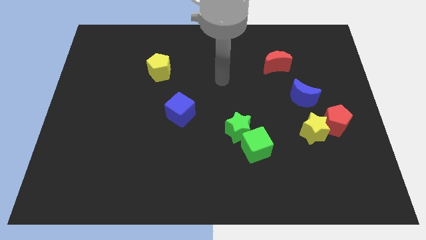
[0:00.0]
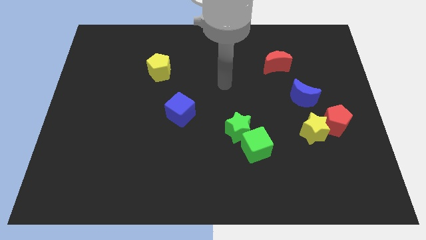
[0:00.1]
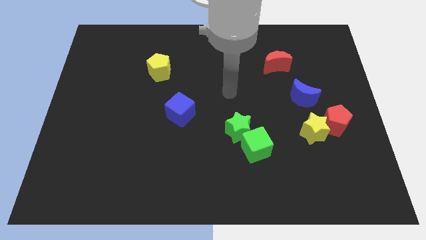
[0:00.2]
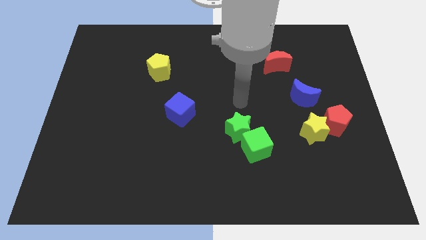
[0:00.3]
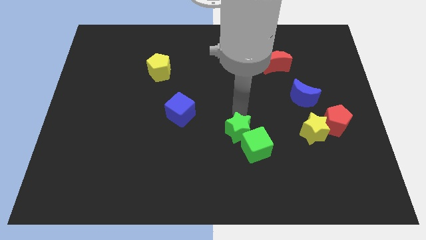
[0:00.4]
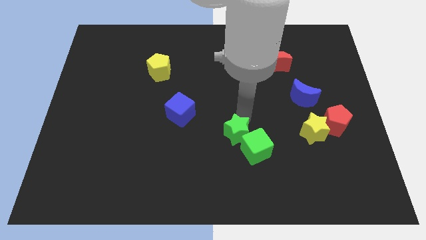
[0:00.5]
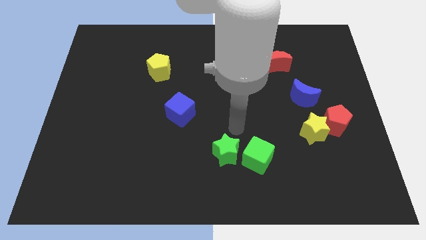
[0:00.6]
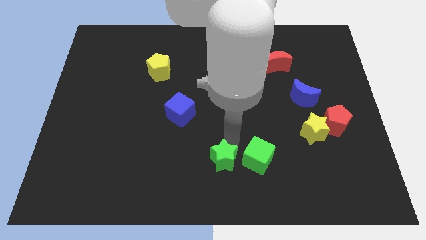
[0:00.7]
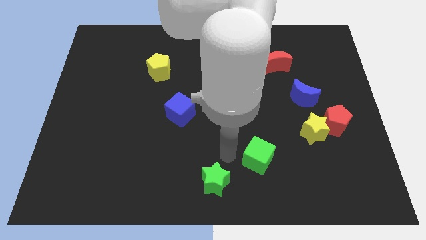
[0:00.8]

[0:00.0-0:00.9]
separate the green cube from the green star

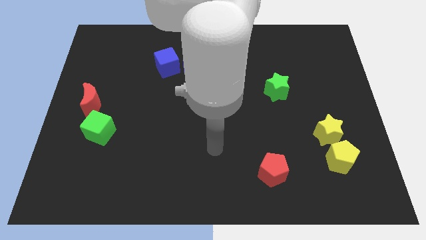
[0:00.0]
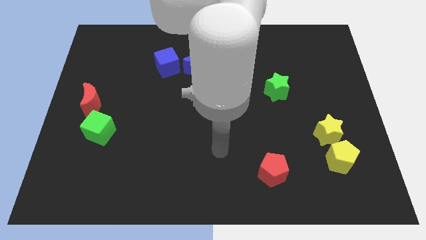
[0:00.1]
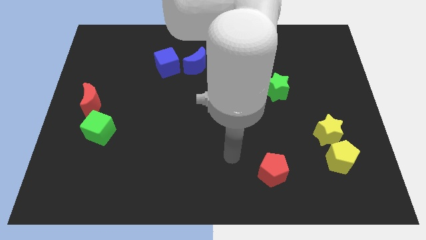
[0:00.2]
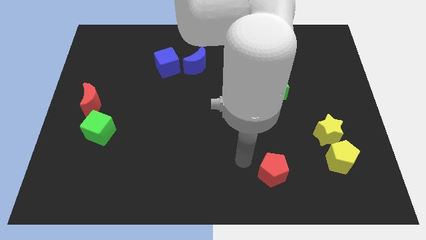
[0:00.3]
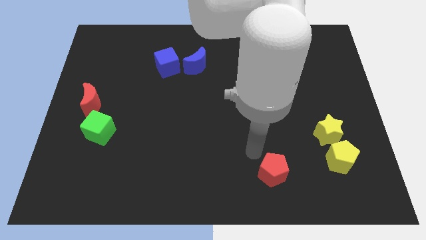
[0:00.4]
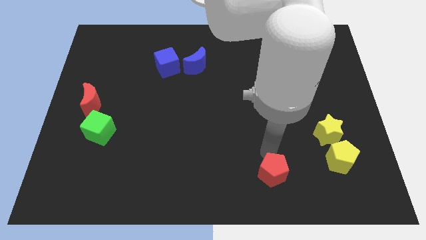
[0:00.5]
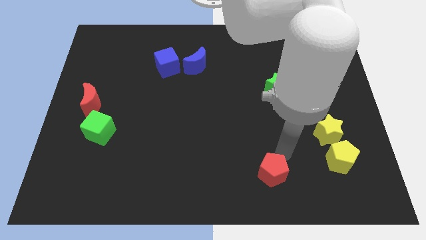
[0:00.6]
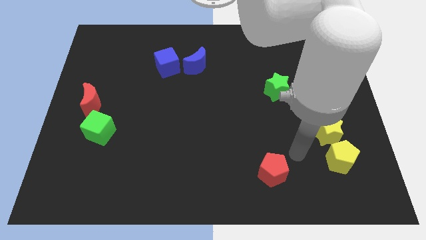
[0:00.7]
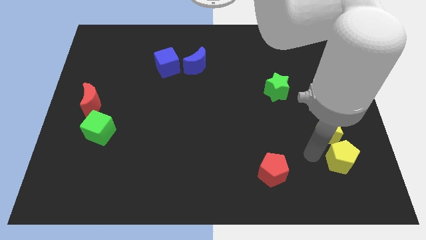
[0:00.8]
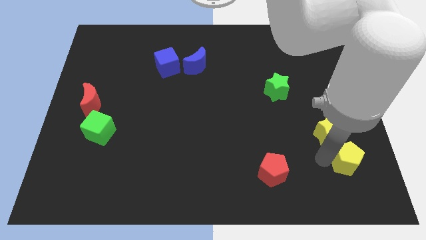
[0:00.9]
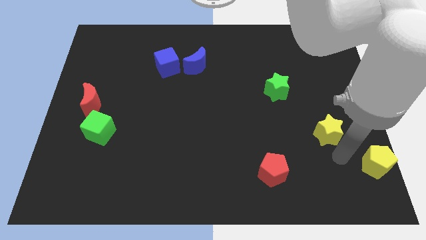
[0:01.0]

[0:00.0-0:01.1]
separate the yellow star from the yellow pentagon

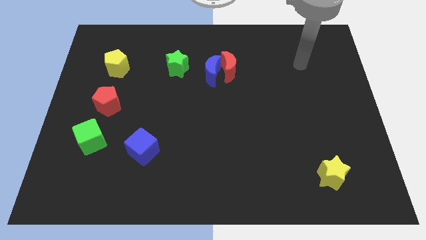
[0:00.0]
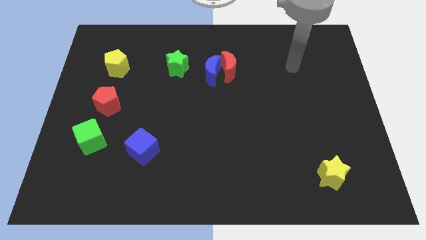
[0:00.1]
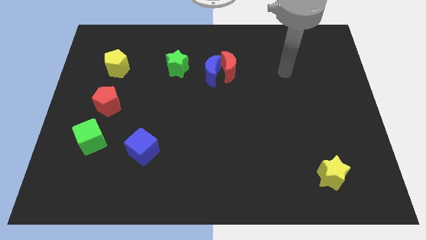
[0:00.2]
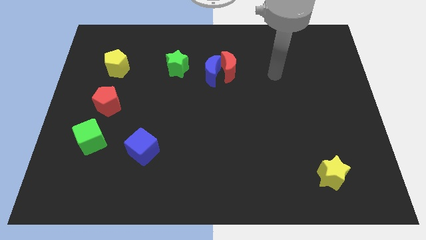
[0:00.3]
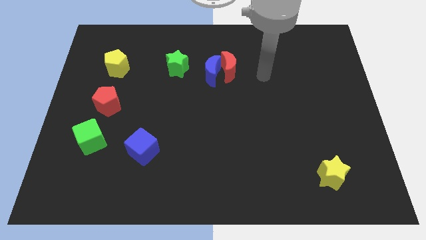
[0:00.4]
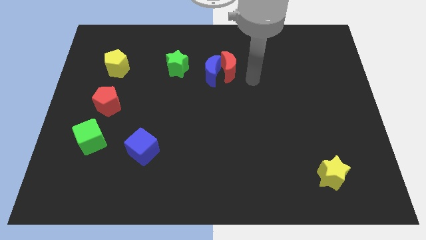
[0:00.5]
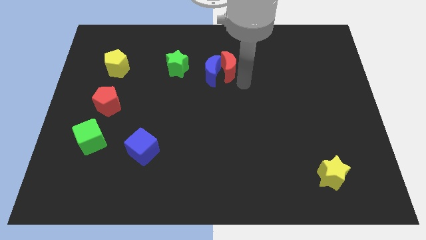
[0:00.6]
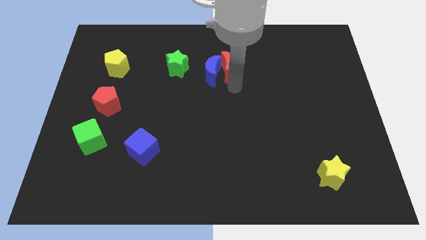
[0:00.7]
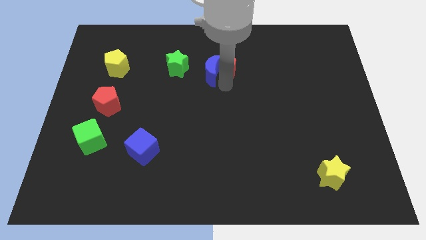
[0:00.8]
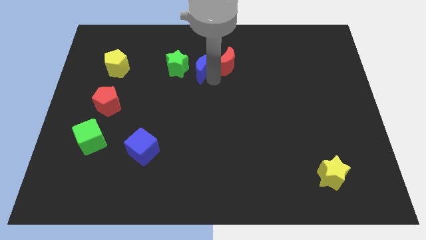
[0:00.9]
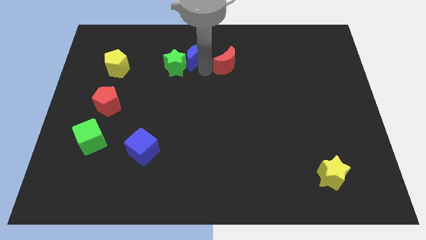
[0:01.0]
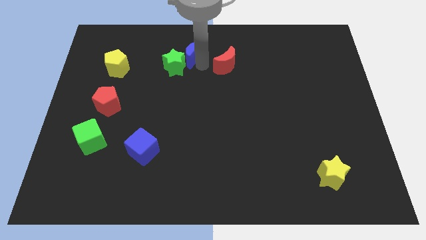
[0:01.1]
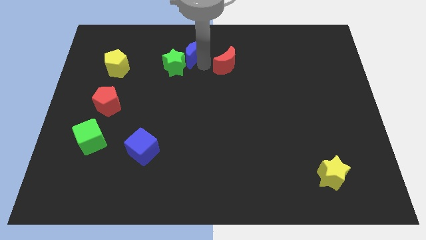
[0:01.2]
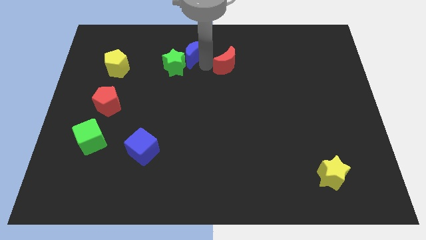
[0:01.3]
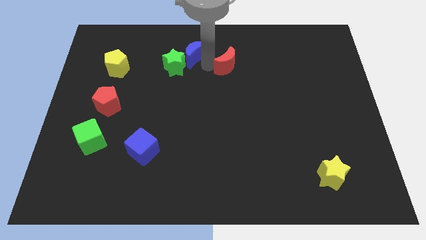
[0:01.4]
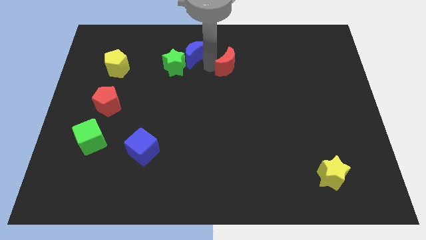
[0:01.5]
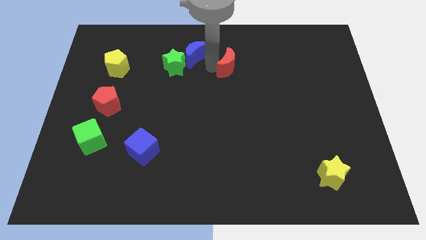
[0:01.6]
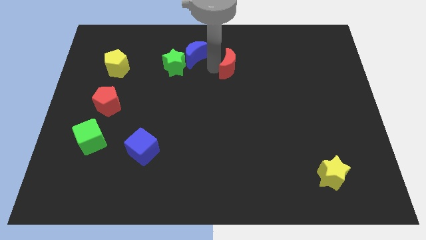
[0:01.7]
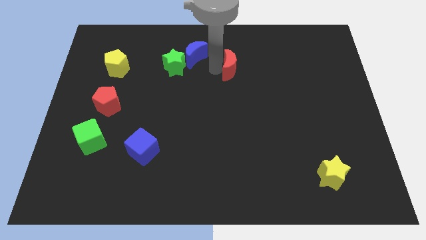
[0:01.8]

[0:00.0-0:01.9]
separate the red moon from the blue moon

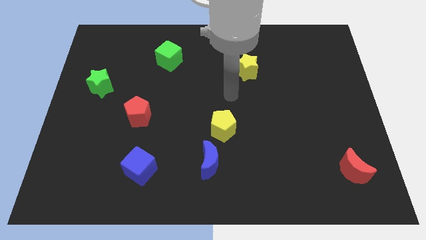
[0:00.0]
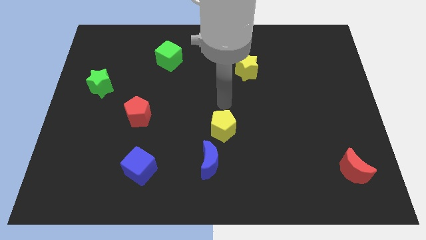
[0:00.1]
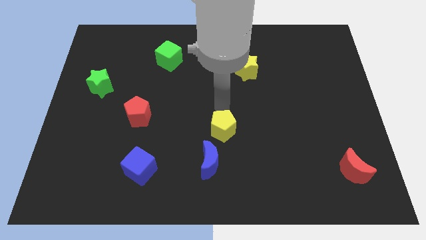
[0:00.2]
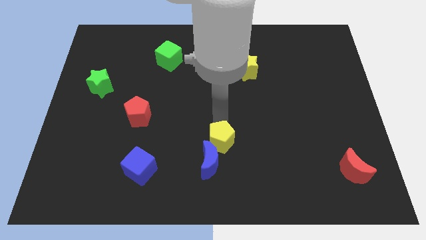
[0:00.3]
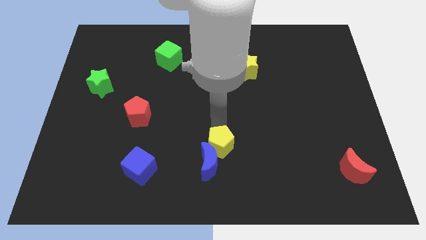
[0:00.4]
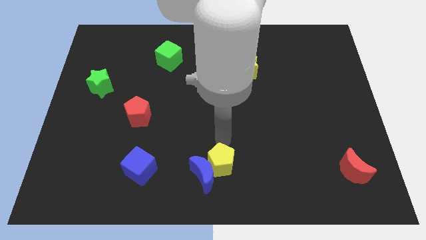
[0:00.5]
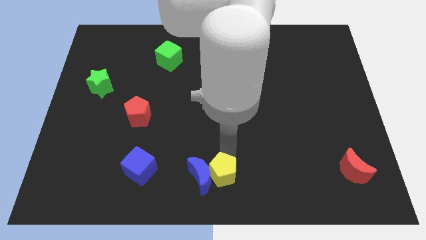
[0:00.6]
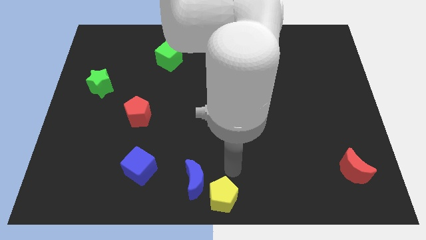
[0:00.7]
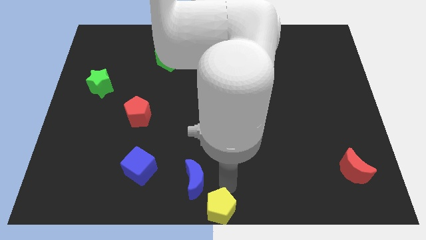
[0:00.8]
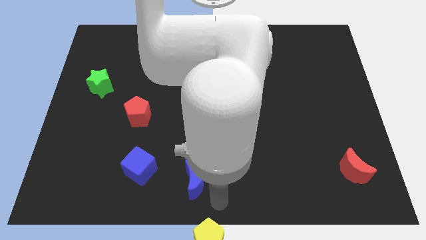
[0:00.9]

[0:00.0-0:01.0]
move the blue moon away from the yellow pentagon

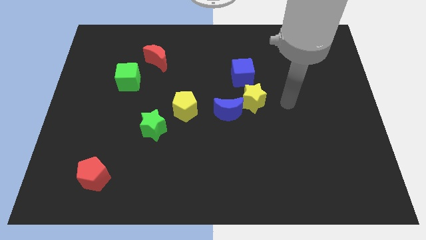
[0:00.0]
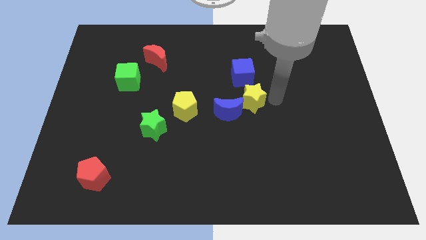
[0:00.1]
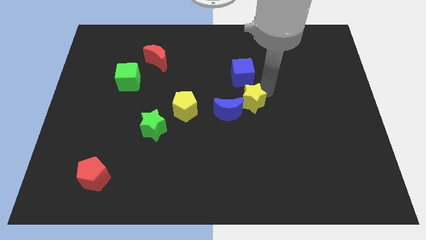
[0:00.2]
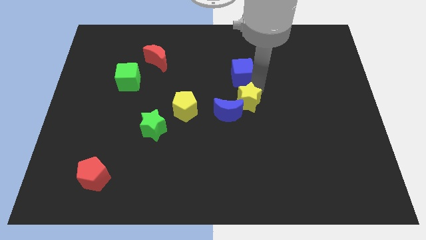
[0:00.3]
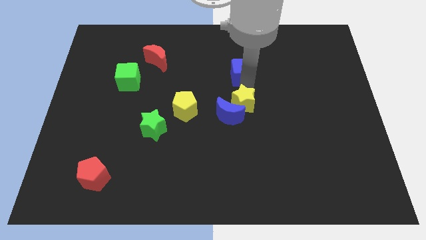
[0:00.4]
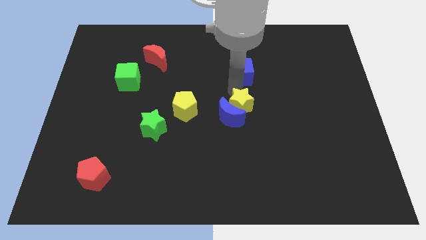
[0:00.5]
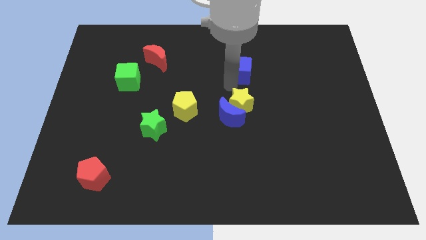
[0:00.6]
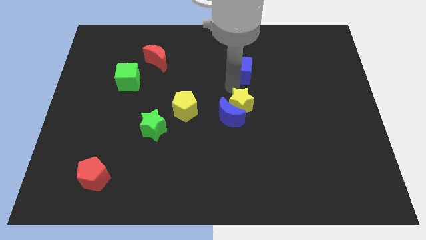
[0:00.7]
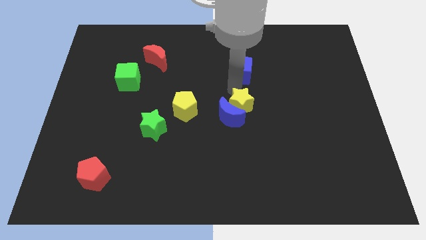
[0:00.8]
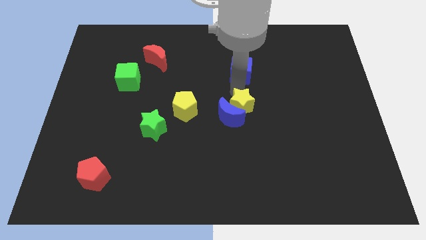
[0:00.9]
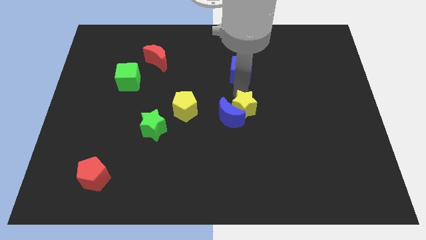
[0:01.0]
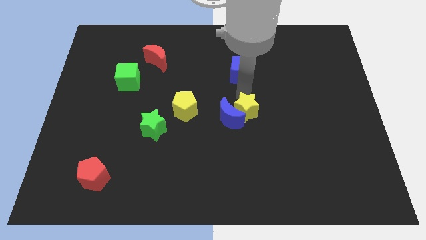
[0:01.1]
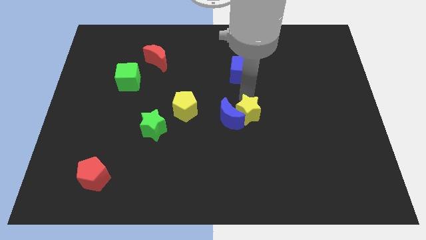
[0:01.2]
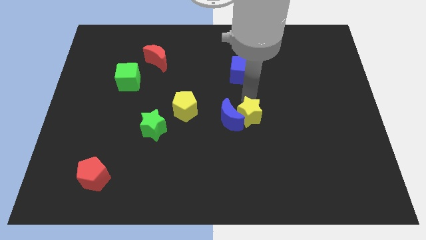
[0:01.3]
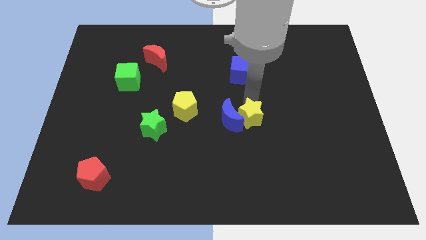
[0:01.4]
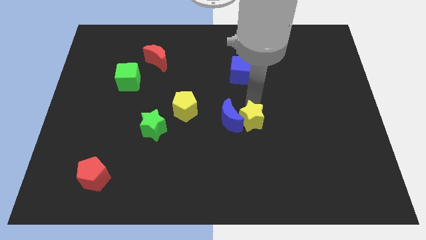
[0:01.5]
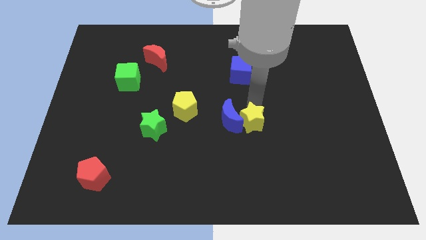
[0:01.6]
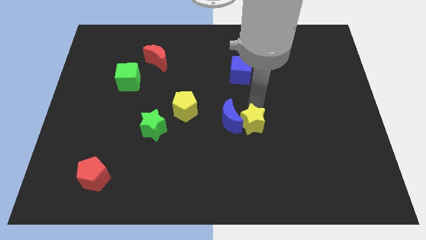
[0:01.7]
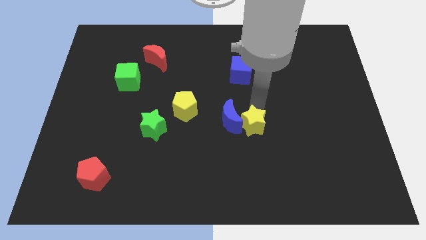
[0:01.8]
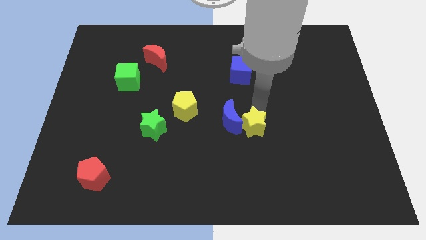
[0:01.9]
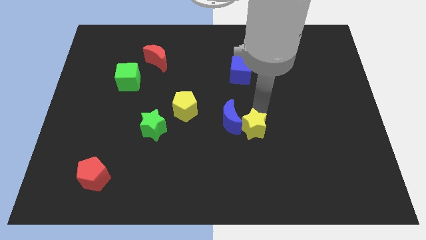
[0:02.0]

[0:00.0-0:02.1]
separate the yellow star from the blue moon and blue cube

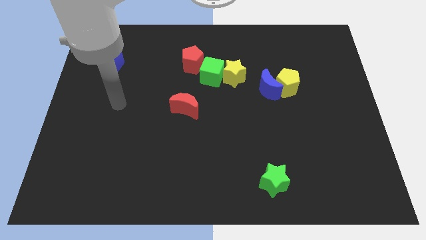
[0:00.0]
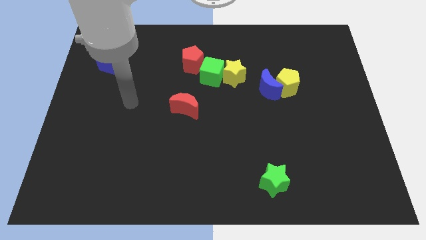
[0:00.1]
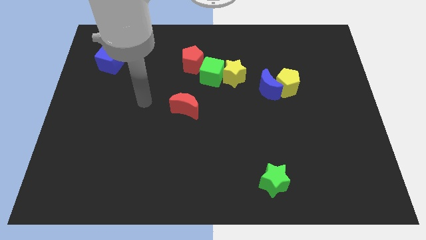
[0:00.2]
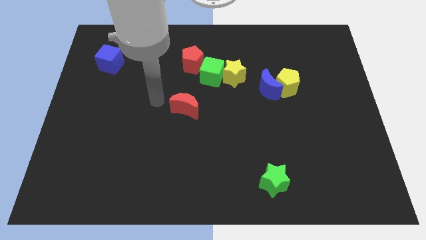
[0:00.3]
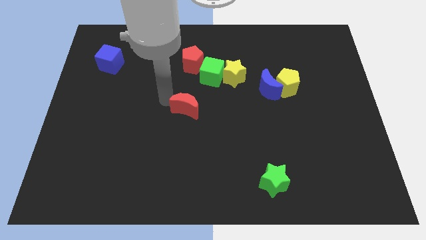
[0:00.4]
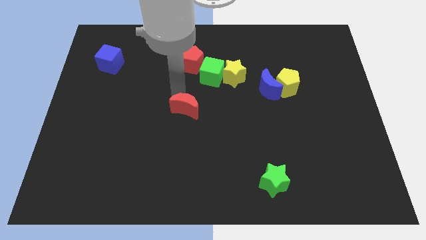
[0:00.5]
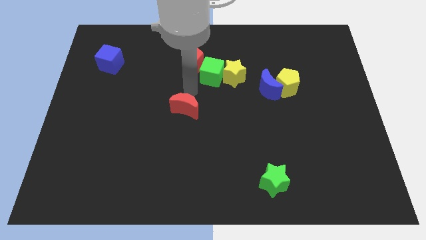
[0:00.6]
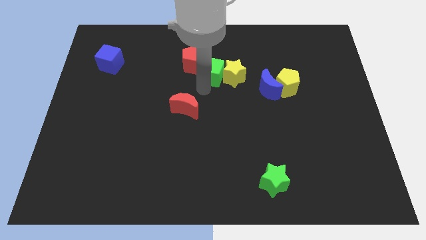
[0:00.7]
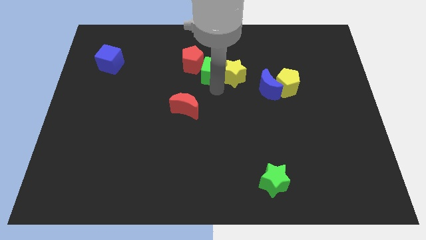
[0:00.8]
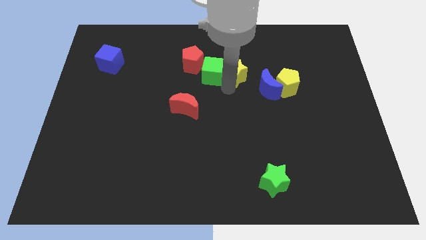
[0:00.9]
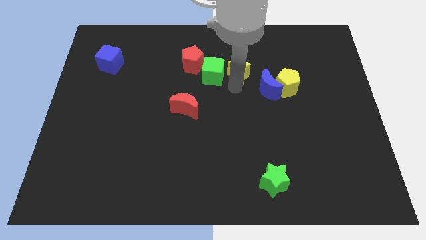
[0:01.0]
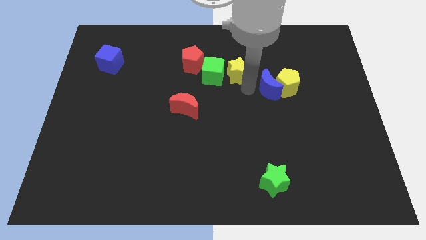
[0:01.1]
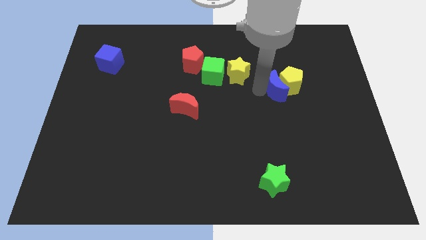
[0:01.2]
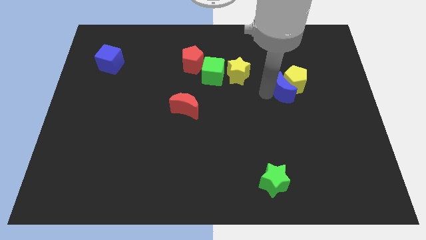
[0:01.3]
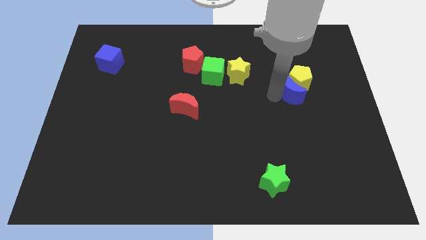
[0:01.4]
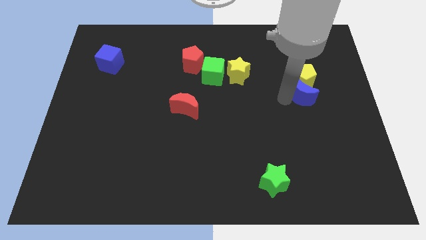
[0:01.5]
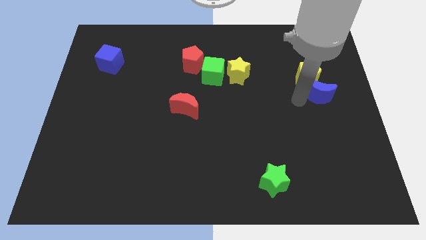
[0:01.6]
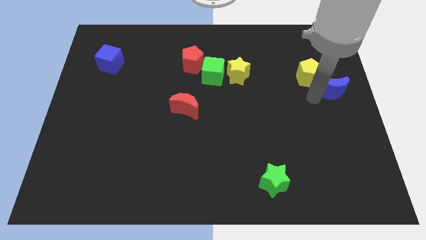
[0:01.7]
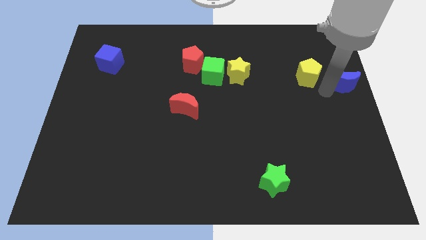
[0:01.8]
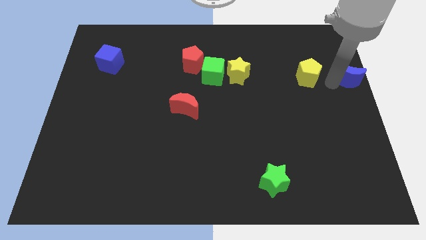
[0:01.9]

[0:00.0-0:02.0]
move the yellow pentagon away from the blue moon
